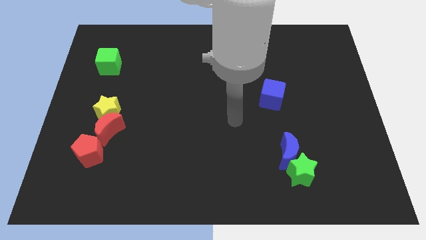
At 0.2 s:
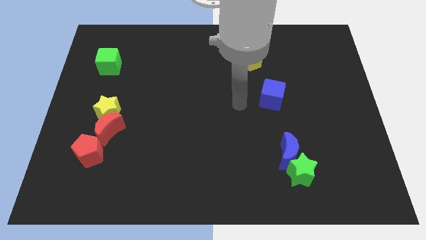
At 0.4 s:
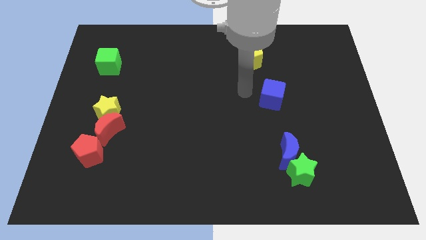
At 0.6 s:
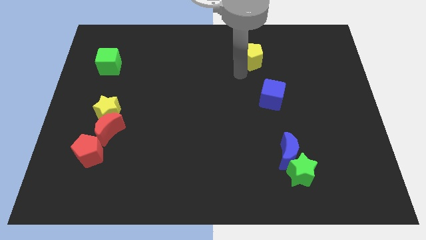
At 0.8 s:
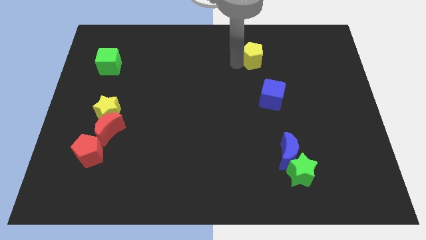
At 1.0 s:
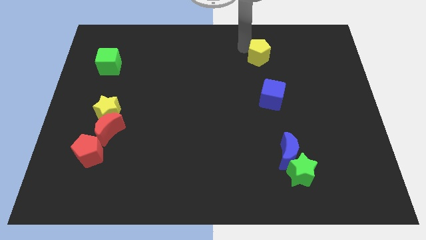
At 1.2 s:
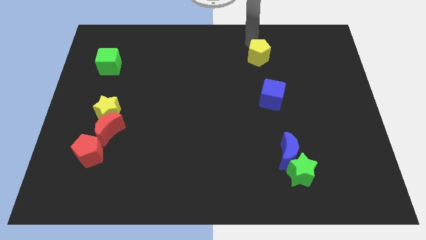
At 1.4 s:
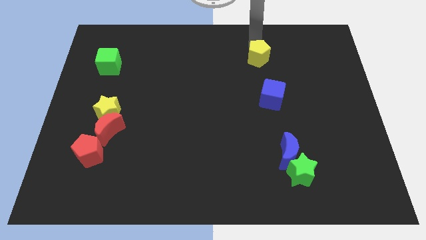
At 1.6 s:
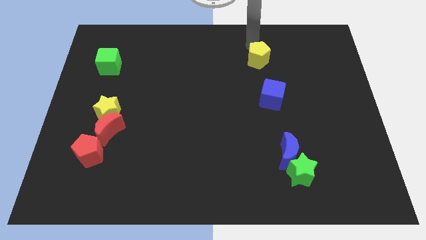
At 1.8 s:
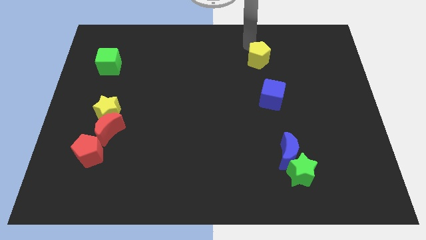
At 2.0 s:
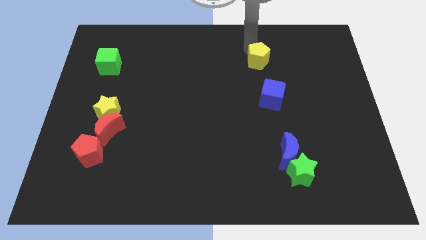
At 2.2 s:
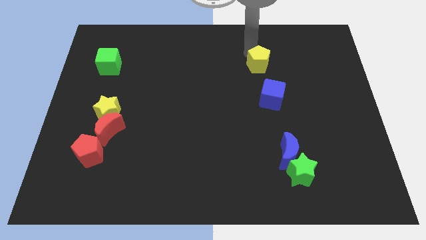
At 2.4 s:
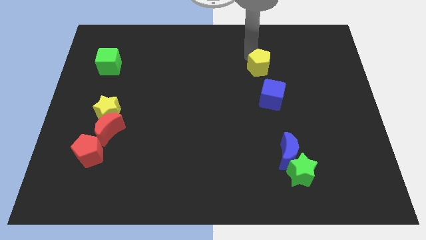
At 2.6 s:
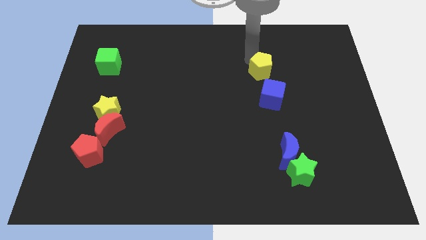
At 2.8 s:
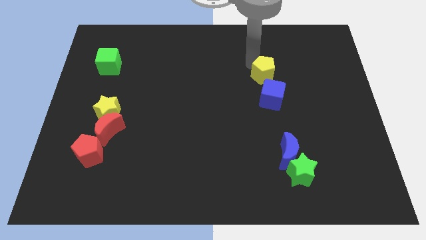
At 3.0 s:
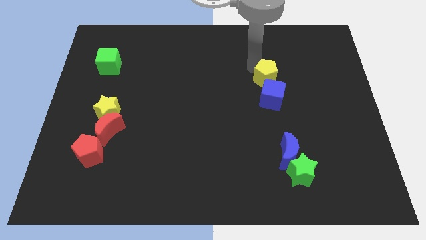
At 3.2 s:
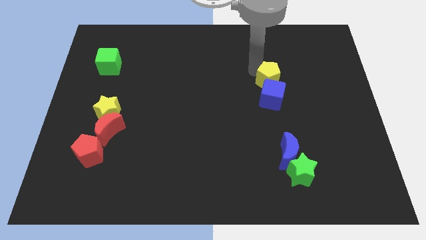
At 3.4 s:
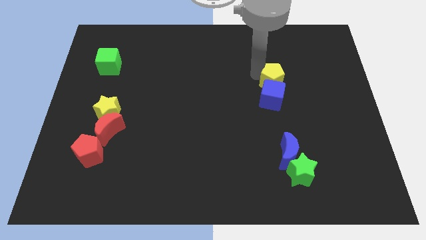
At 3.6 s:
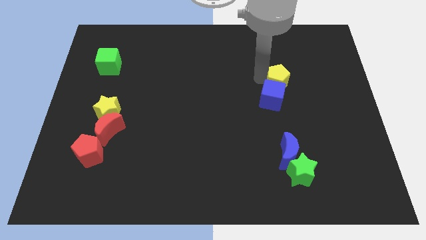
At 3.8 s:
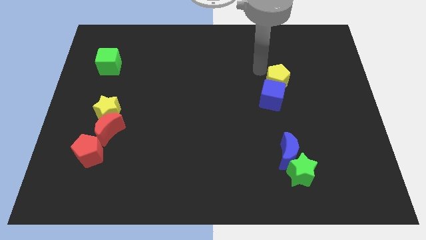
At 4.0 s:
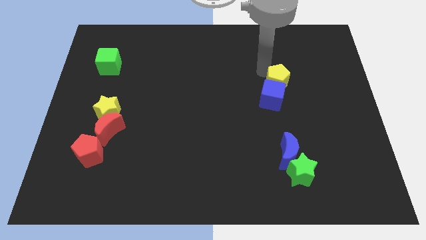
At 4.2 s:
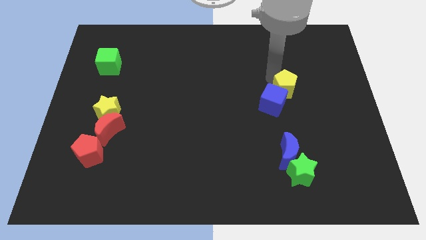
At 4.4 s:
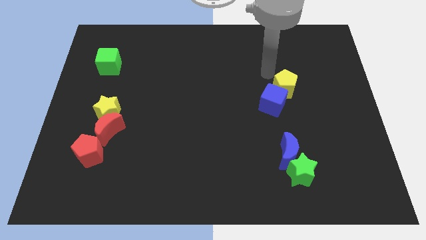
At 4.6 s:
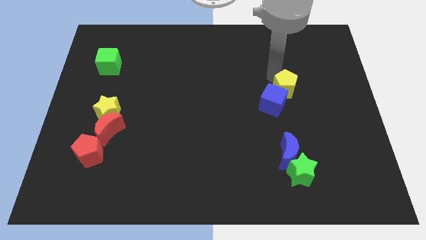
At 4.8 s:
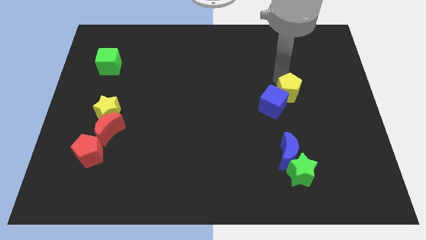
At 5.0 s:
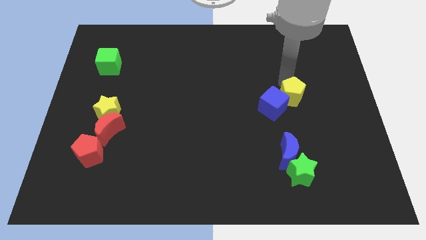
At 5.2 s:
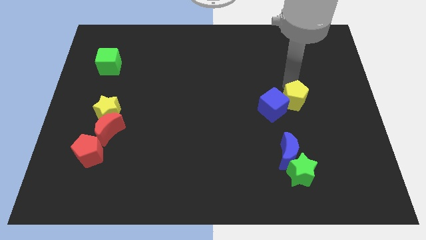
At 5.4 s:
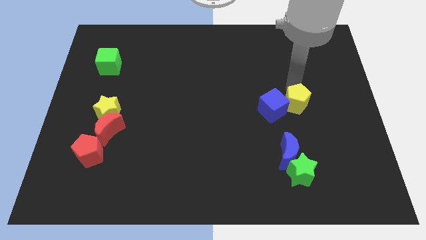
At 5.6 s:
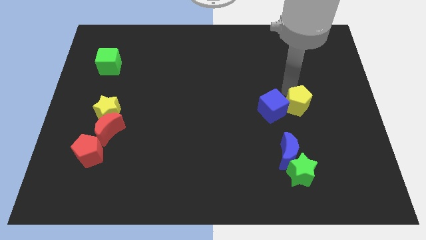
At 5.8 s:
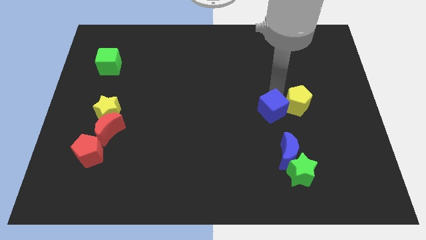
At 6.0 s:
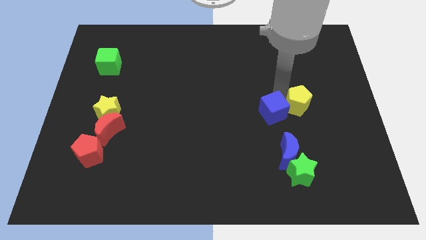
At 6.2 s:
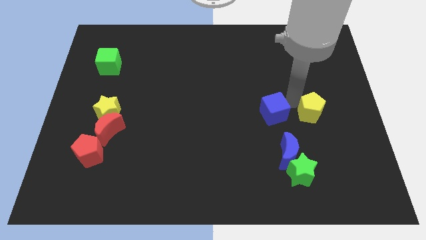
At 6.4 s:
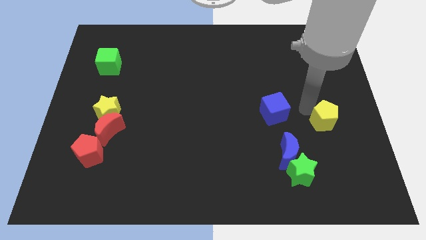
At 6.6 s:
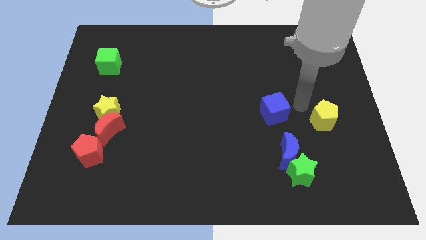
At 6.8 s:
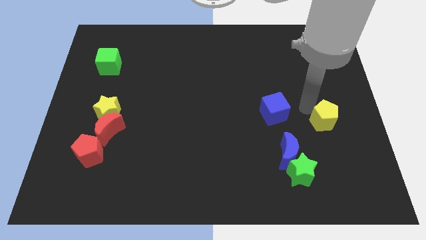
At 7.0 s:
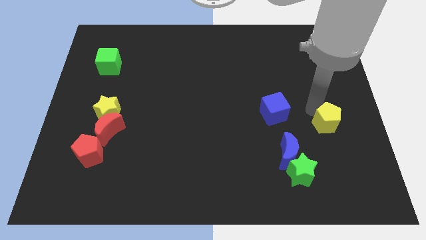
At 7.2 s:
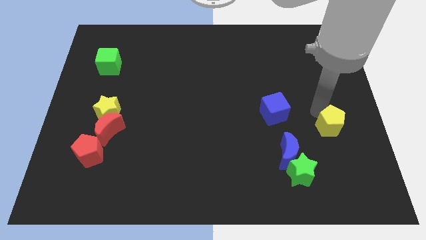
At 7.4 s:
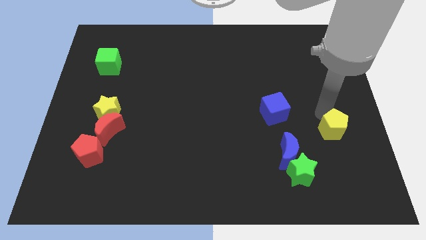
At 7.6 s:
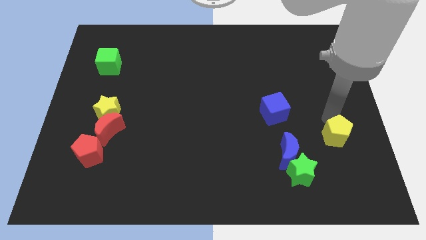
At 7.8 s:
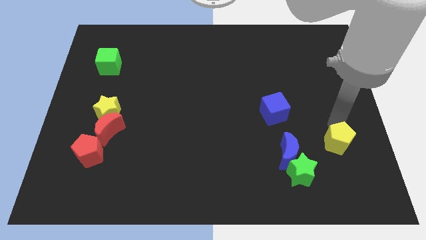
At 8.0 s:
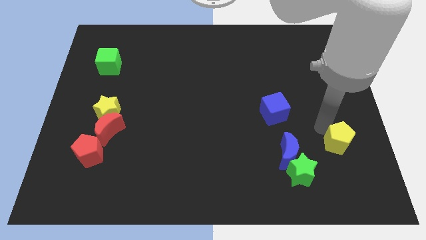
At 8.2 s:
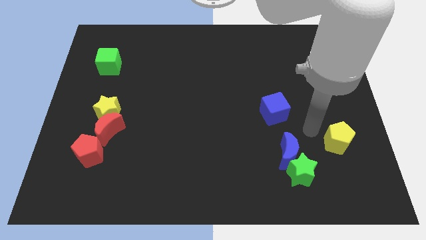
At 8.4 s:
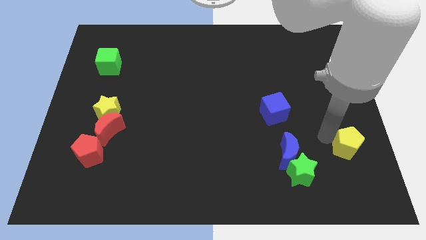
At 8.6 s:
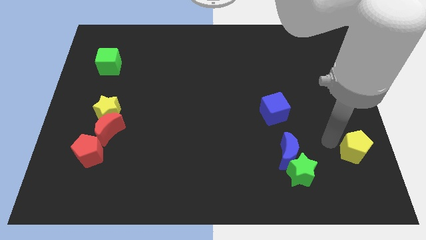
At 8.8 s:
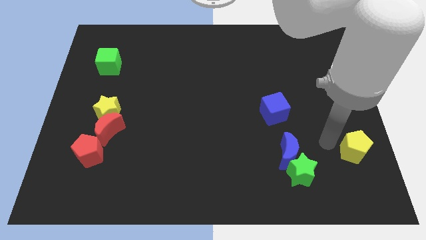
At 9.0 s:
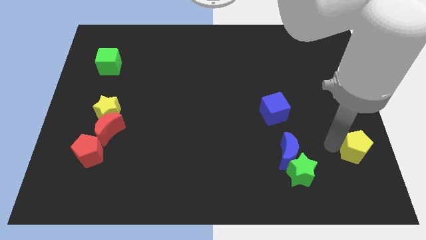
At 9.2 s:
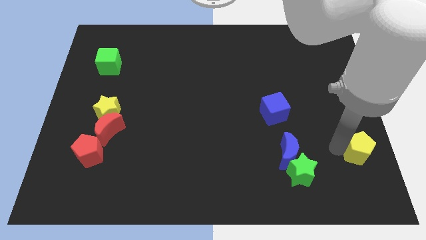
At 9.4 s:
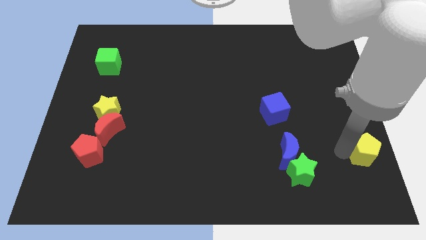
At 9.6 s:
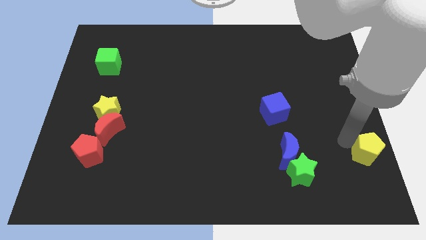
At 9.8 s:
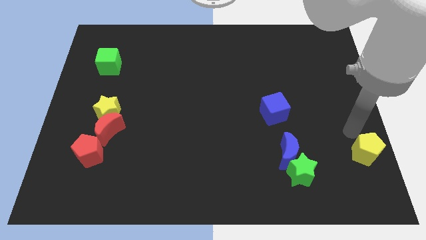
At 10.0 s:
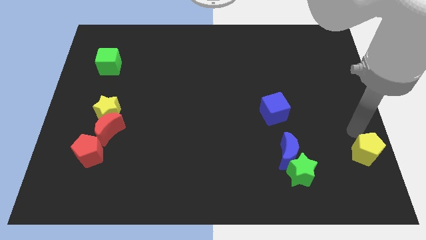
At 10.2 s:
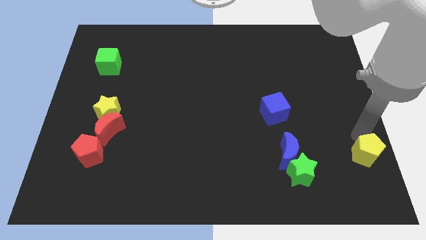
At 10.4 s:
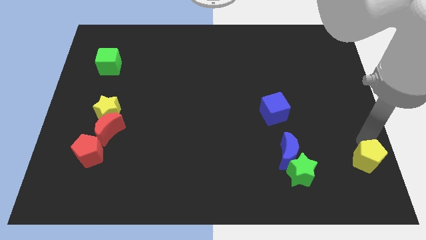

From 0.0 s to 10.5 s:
put the yellow pentagon to the lower right corner
